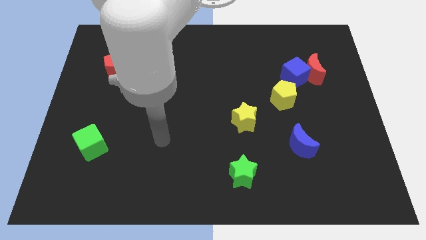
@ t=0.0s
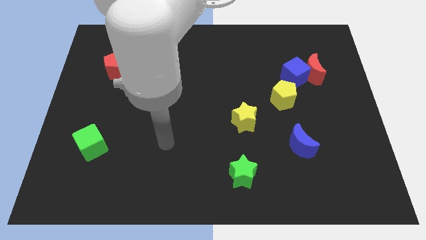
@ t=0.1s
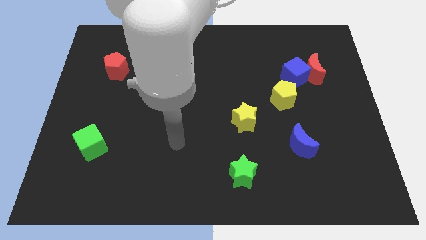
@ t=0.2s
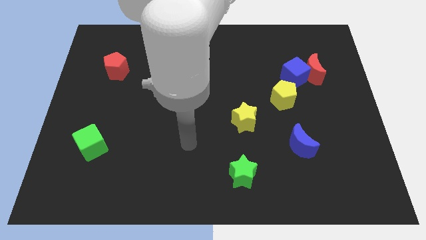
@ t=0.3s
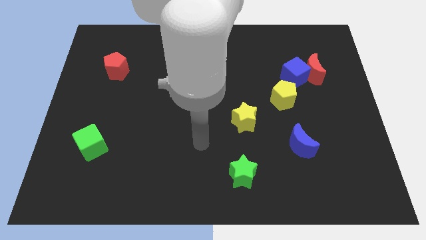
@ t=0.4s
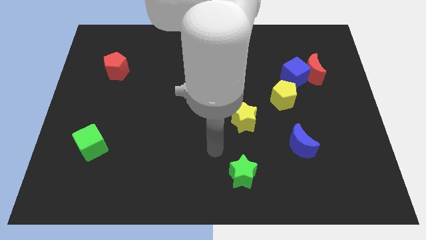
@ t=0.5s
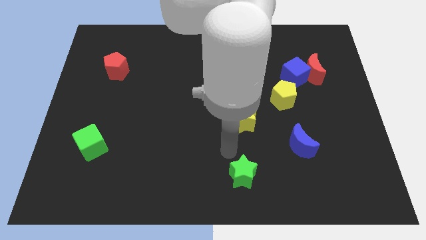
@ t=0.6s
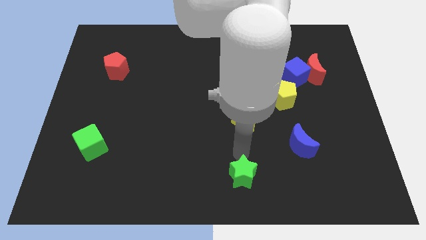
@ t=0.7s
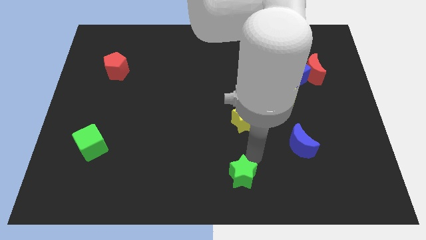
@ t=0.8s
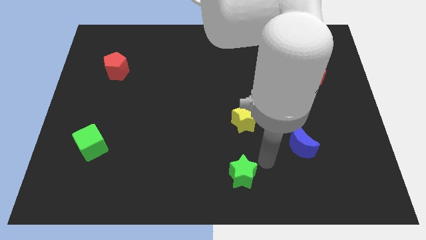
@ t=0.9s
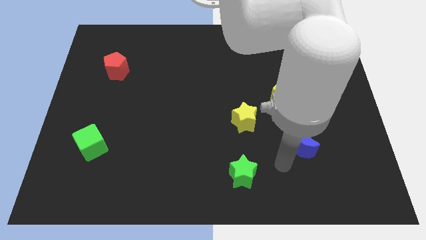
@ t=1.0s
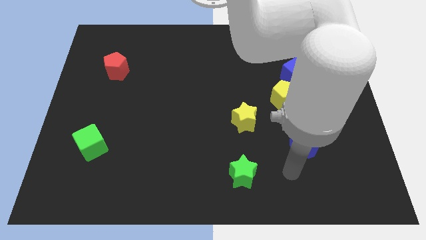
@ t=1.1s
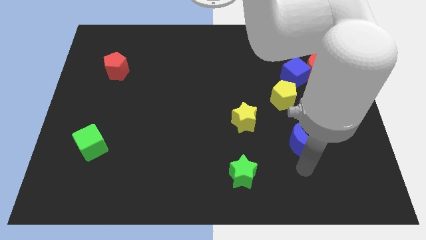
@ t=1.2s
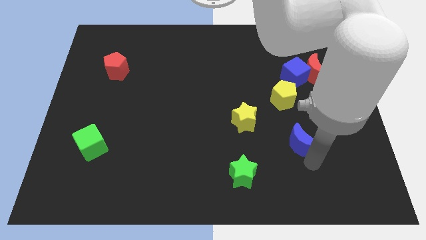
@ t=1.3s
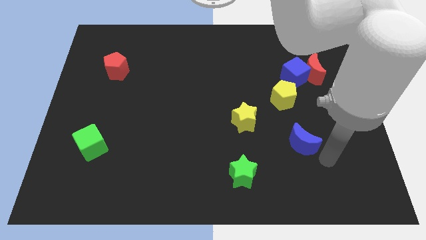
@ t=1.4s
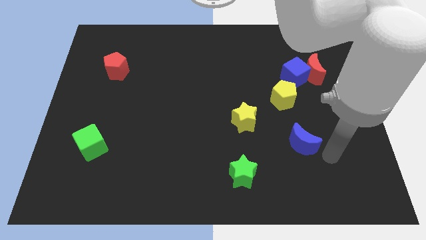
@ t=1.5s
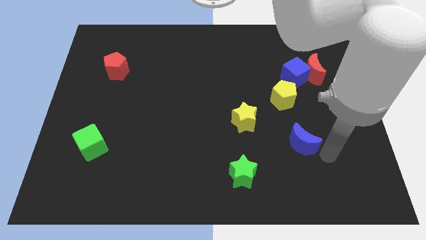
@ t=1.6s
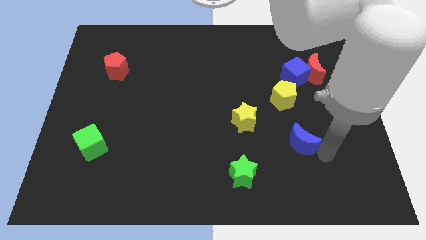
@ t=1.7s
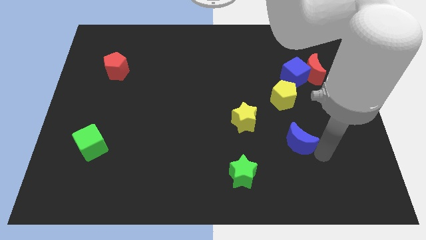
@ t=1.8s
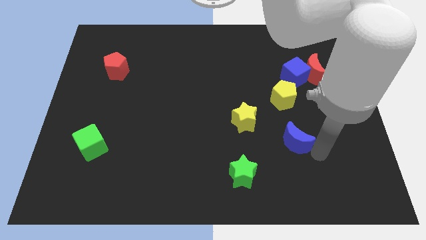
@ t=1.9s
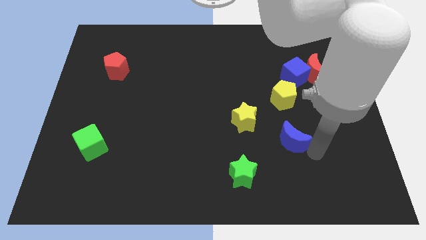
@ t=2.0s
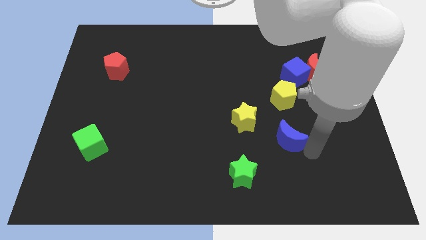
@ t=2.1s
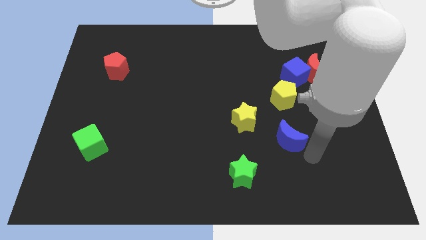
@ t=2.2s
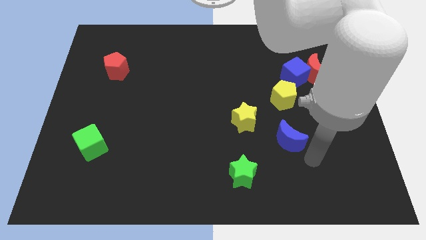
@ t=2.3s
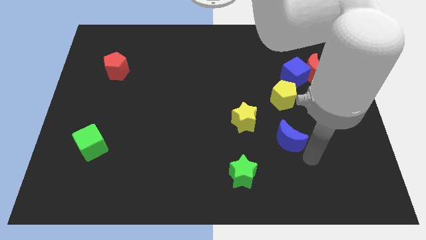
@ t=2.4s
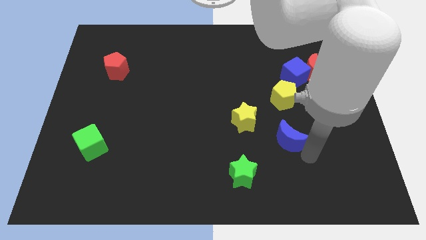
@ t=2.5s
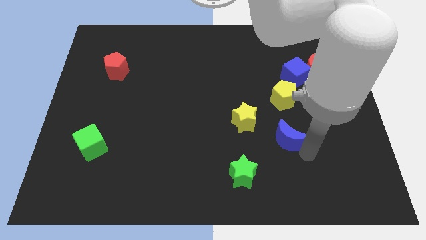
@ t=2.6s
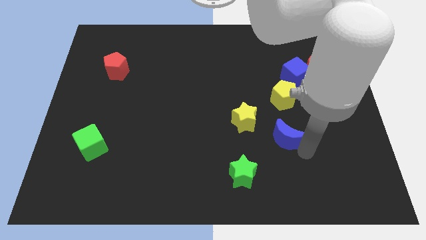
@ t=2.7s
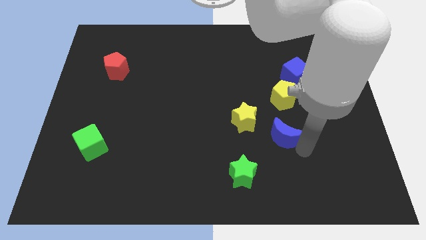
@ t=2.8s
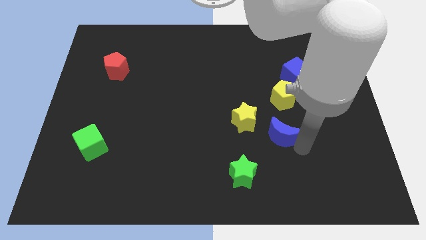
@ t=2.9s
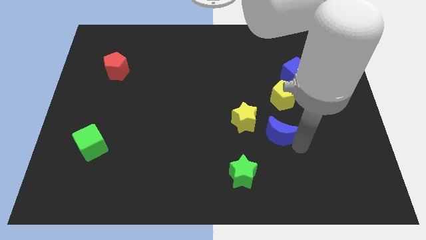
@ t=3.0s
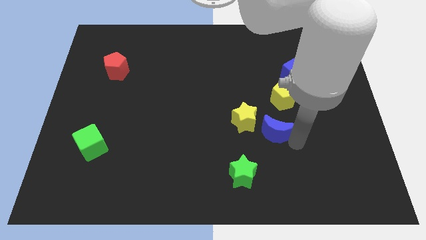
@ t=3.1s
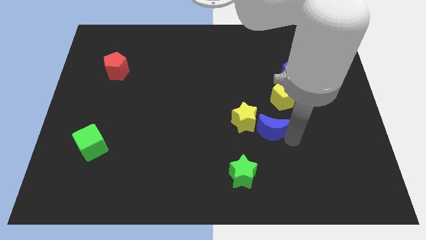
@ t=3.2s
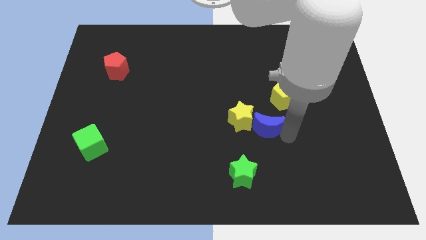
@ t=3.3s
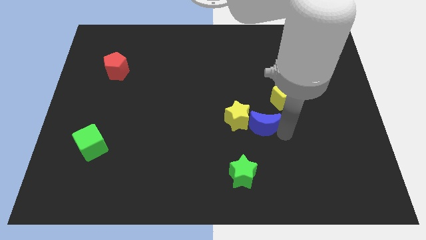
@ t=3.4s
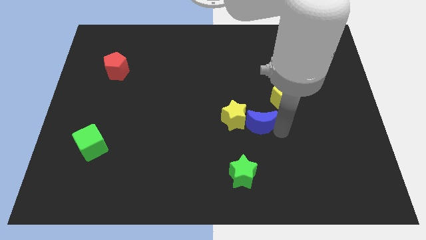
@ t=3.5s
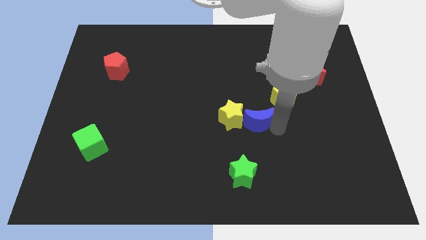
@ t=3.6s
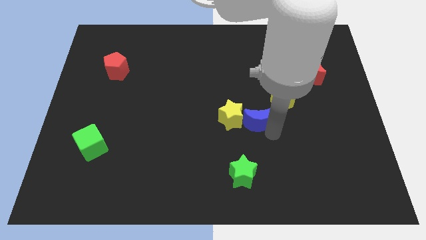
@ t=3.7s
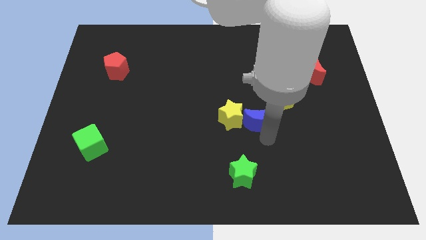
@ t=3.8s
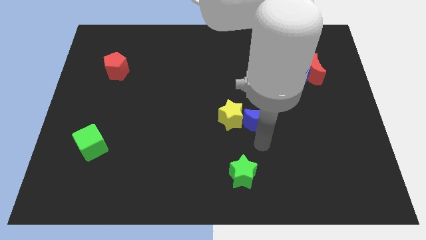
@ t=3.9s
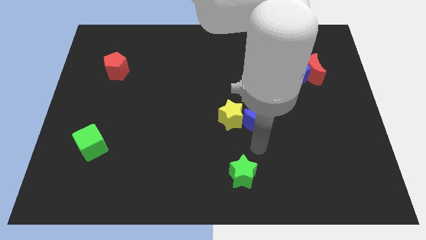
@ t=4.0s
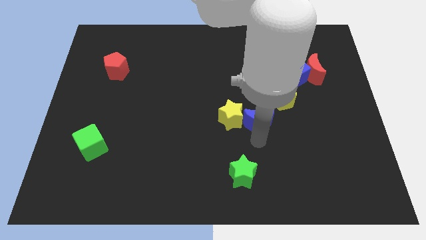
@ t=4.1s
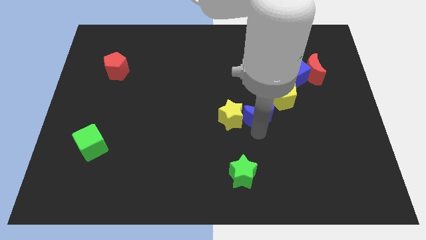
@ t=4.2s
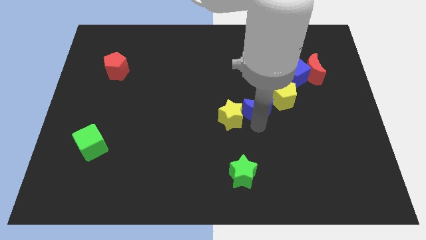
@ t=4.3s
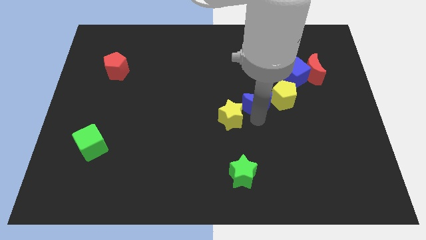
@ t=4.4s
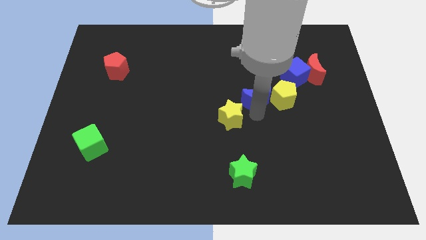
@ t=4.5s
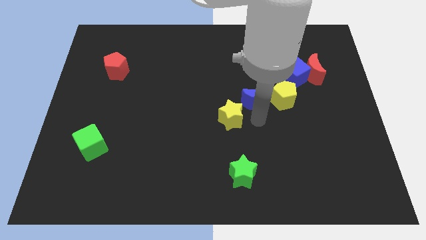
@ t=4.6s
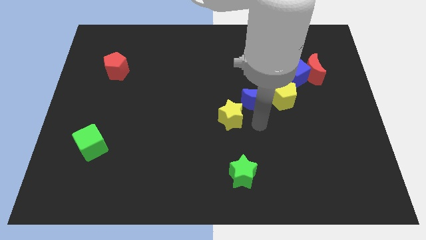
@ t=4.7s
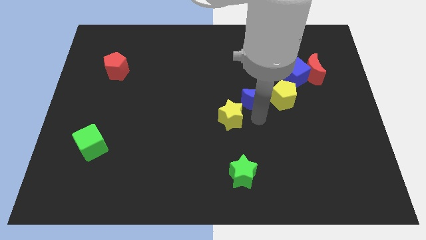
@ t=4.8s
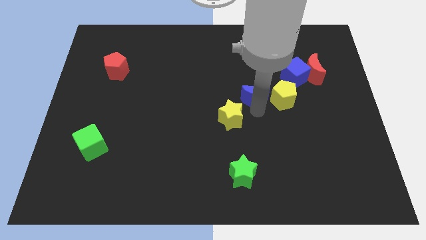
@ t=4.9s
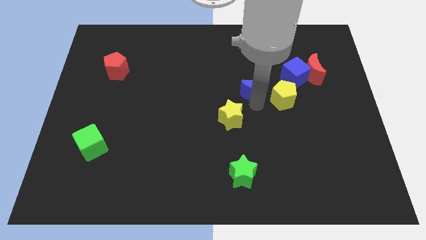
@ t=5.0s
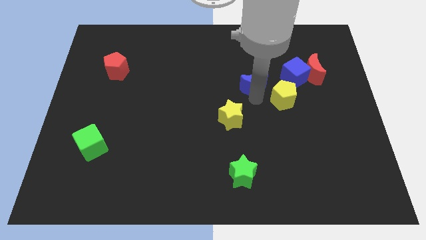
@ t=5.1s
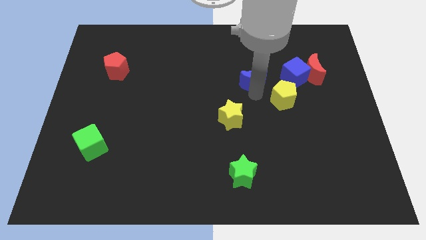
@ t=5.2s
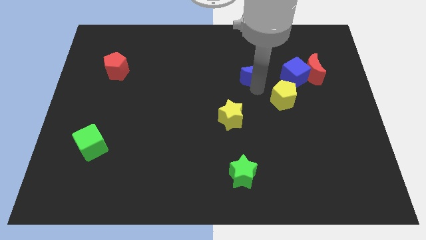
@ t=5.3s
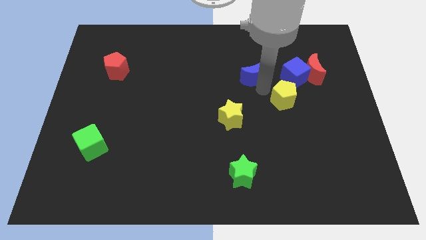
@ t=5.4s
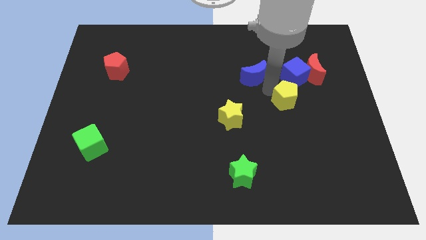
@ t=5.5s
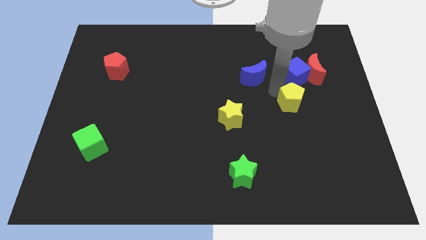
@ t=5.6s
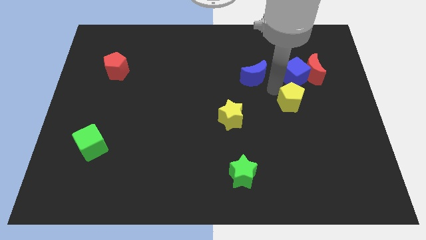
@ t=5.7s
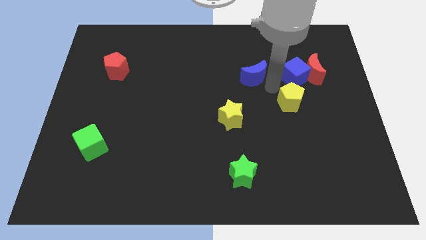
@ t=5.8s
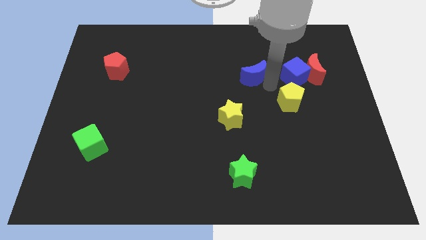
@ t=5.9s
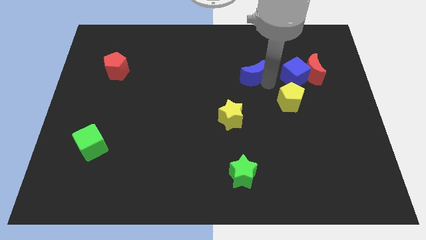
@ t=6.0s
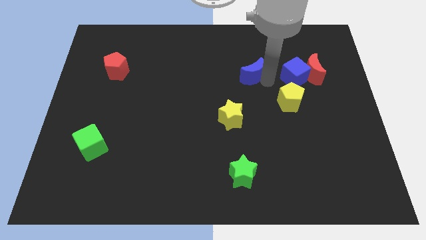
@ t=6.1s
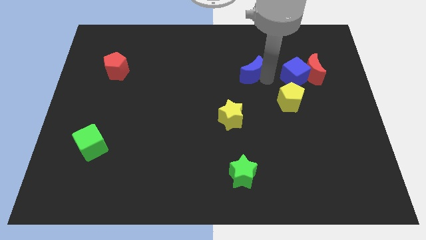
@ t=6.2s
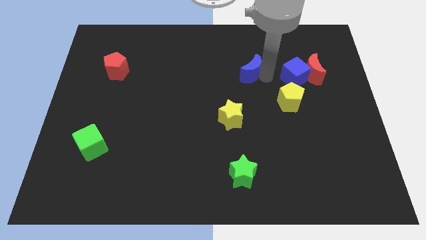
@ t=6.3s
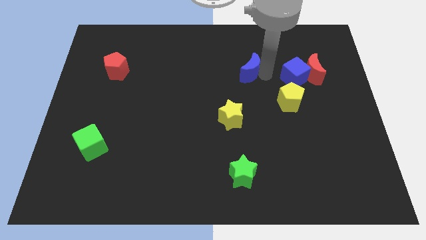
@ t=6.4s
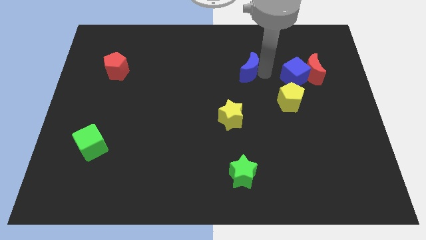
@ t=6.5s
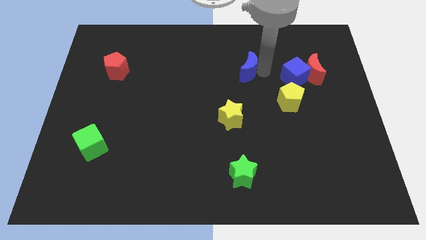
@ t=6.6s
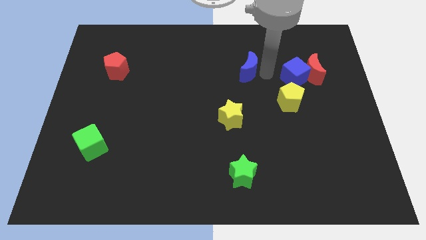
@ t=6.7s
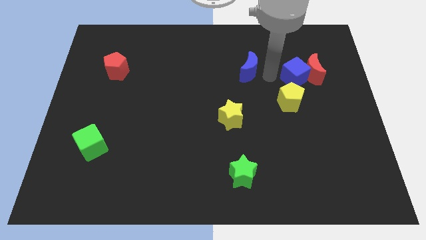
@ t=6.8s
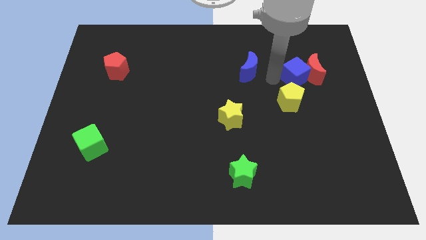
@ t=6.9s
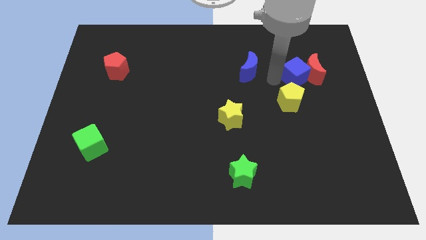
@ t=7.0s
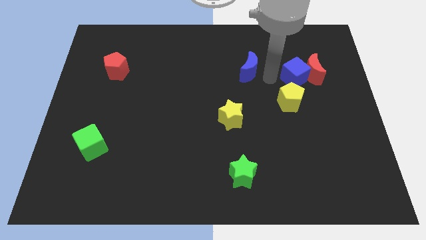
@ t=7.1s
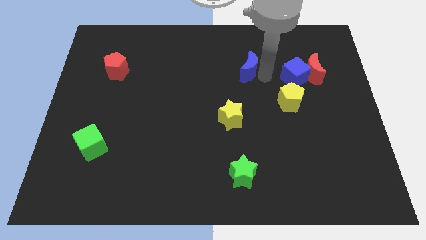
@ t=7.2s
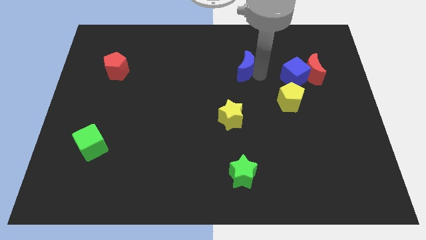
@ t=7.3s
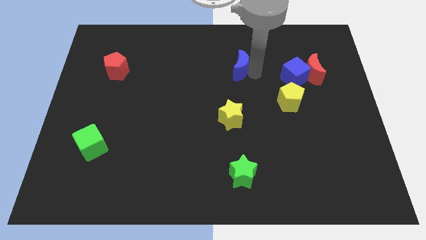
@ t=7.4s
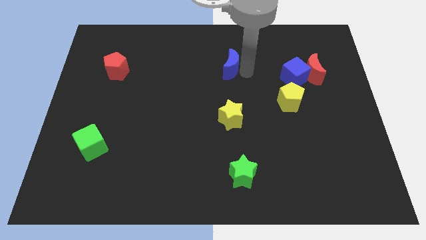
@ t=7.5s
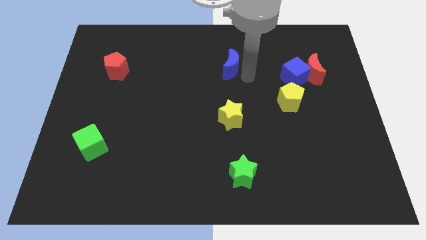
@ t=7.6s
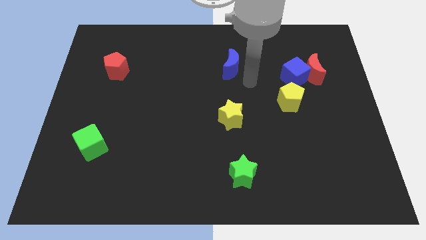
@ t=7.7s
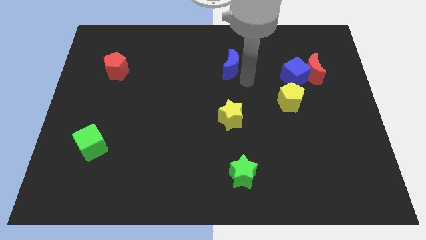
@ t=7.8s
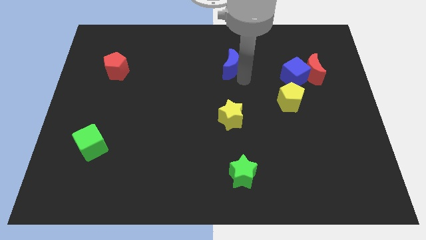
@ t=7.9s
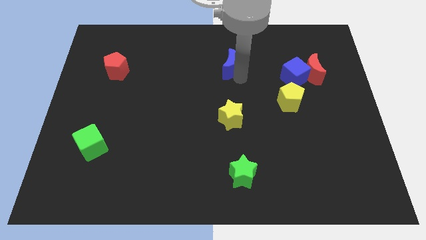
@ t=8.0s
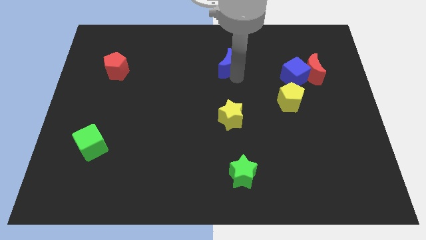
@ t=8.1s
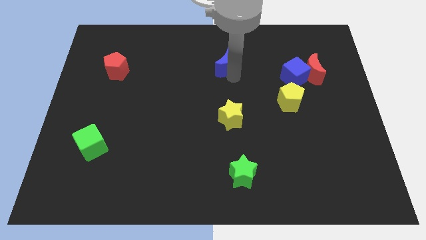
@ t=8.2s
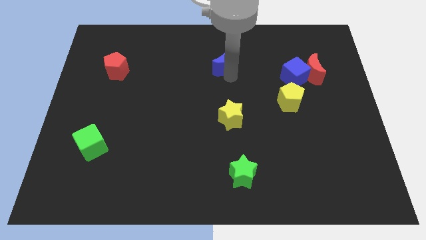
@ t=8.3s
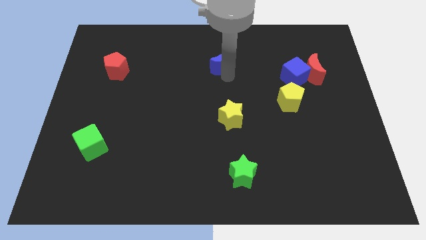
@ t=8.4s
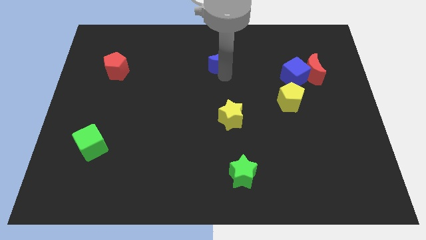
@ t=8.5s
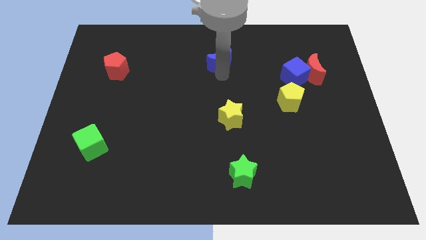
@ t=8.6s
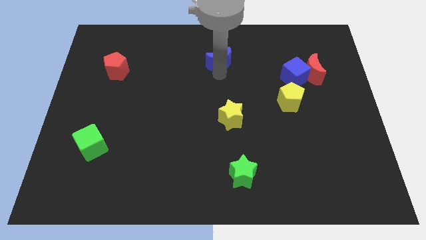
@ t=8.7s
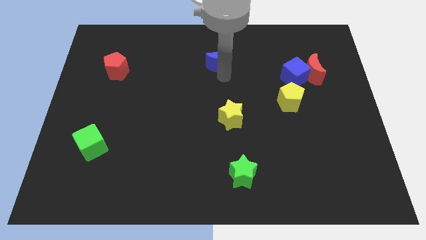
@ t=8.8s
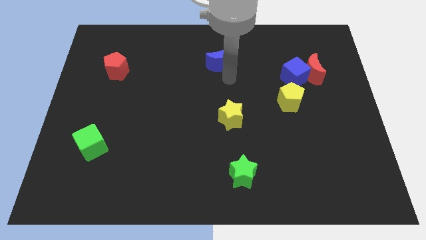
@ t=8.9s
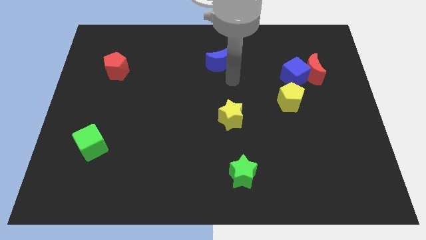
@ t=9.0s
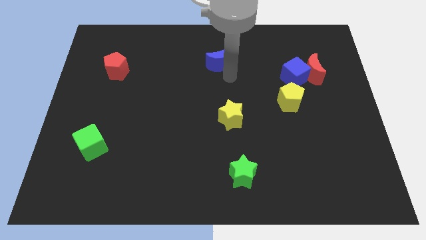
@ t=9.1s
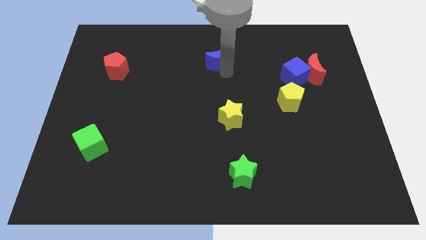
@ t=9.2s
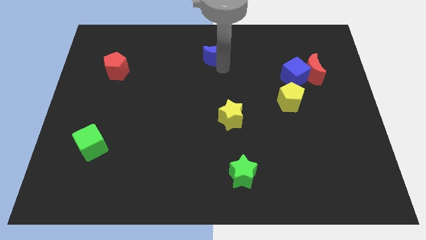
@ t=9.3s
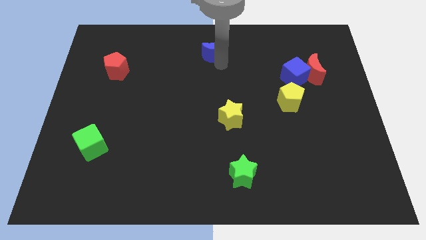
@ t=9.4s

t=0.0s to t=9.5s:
push the blue moon to the top side
